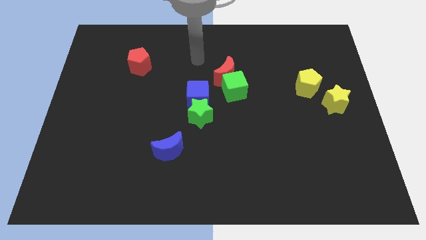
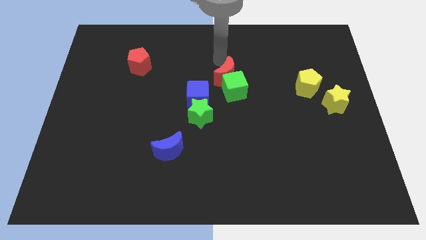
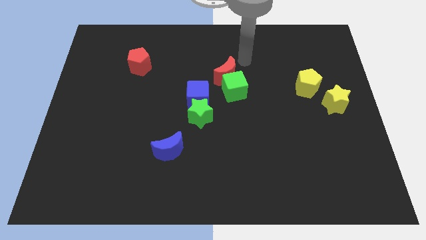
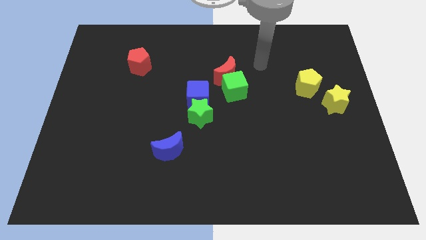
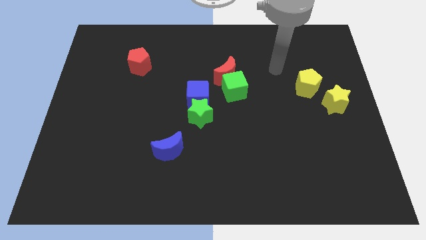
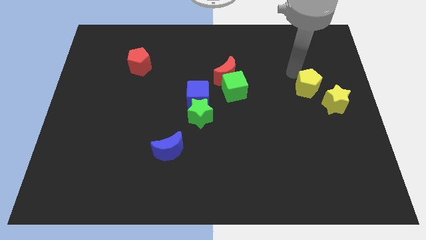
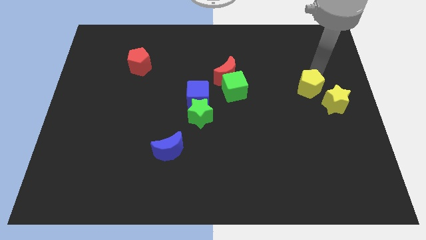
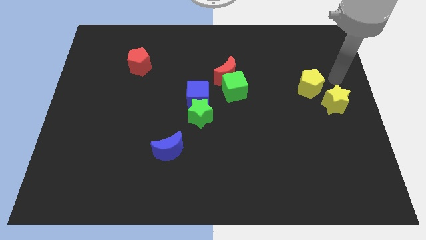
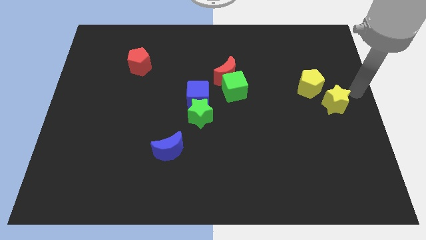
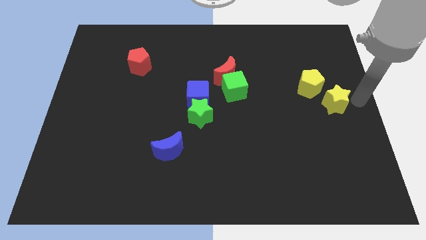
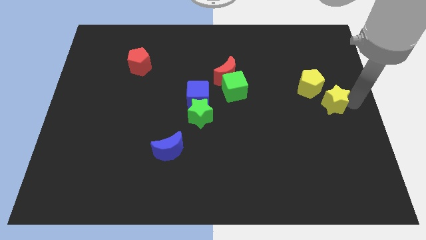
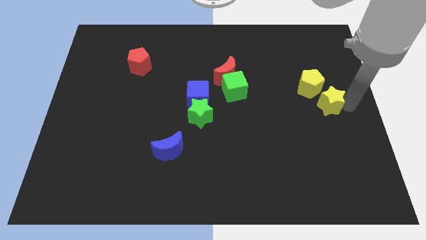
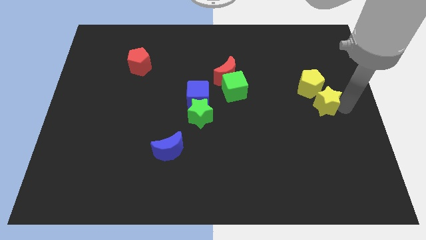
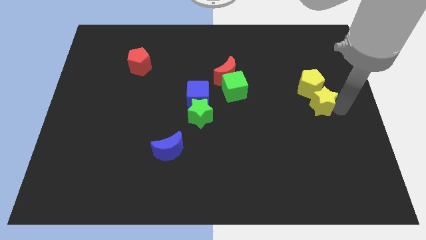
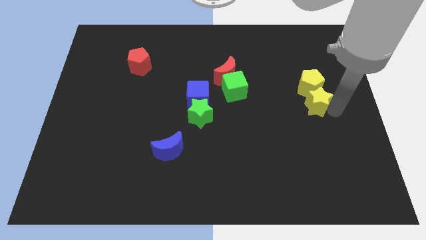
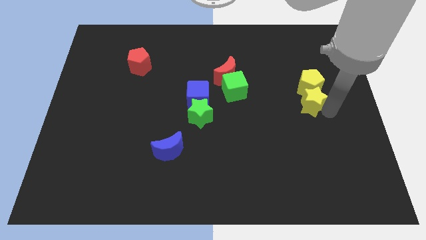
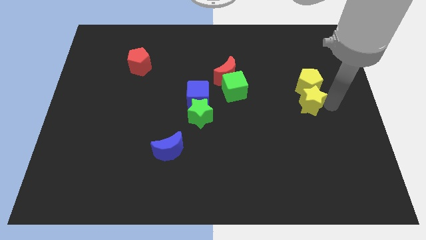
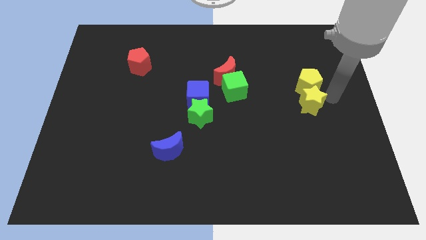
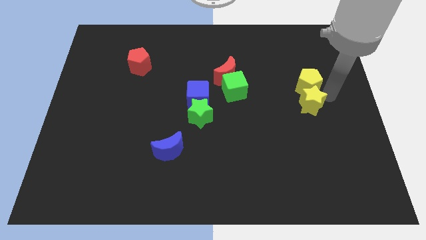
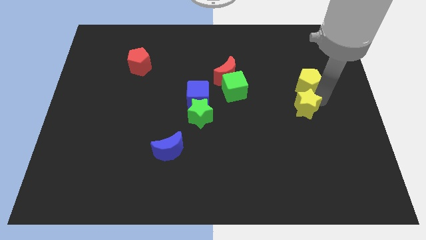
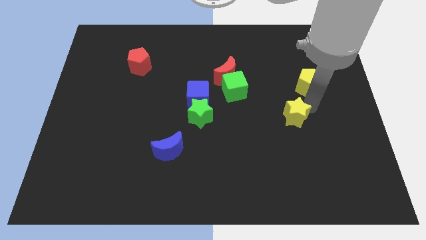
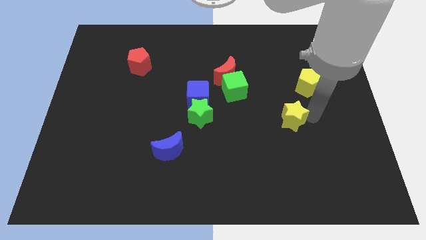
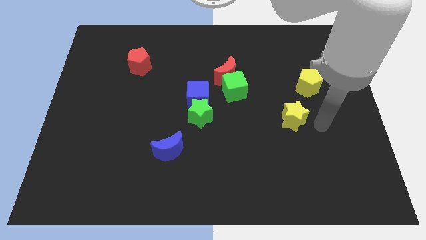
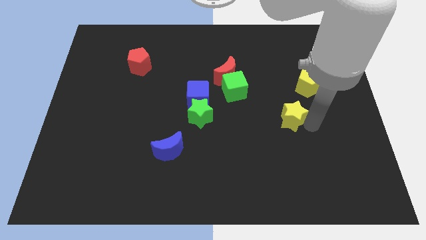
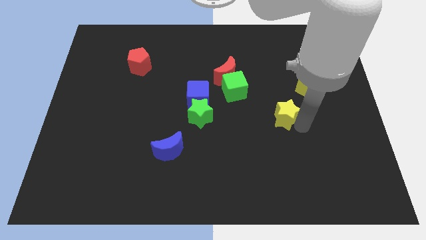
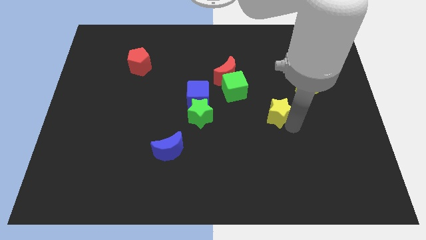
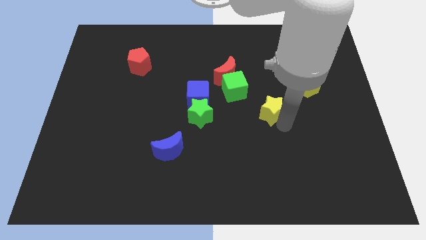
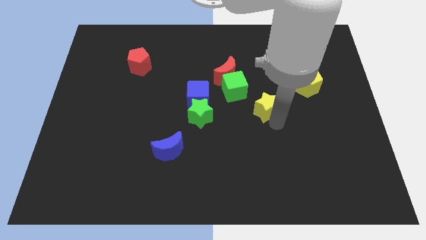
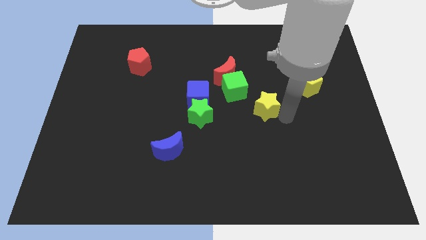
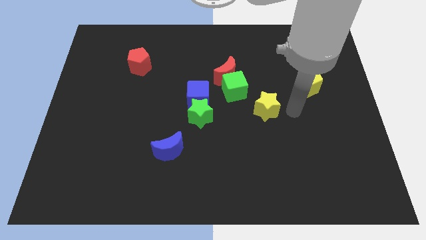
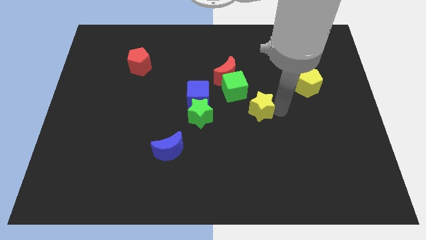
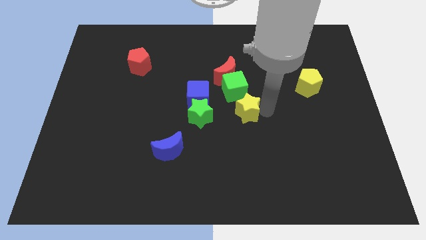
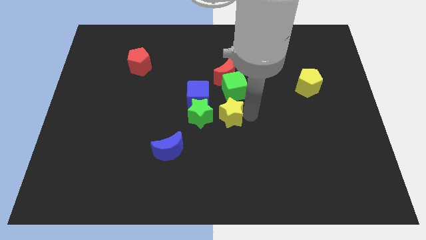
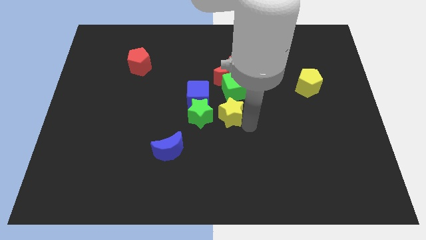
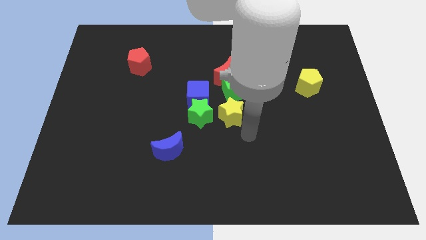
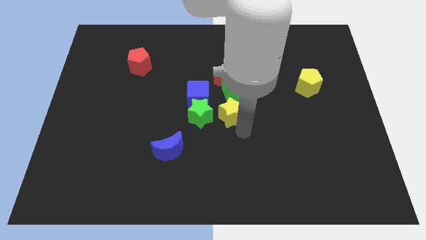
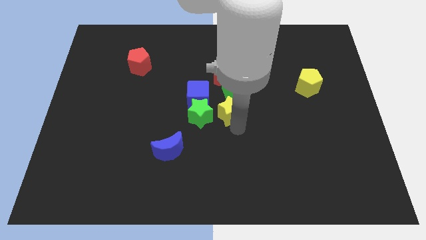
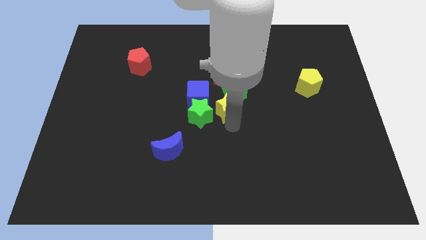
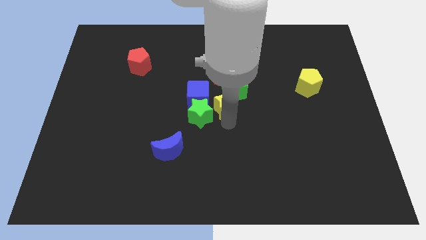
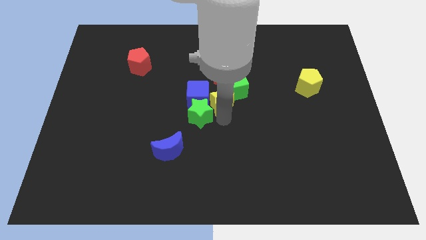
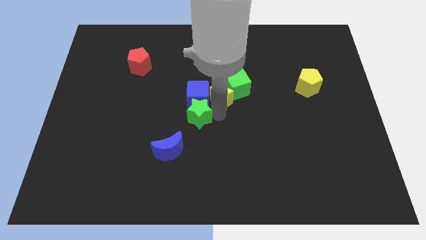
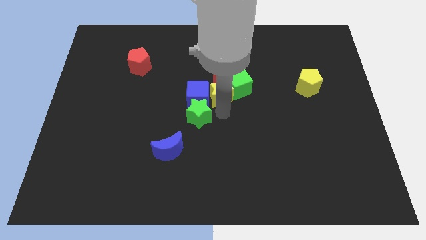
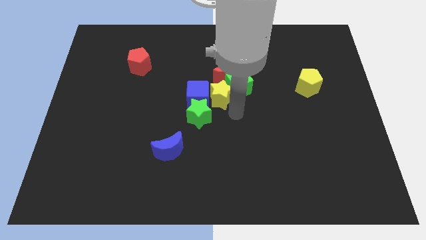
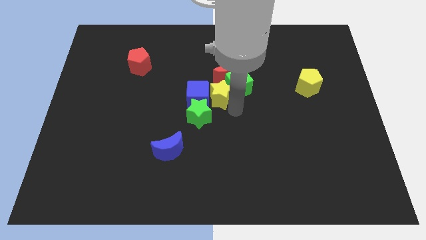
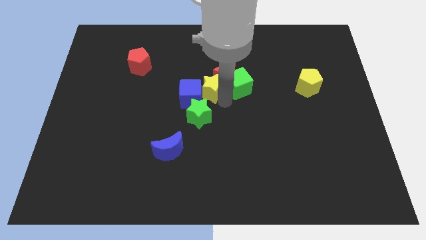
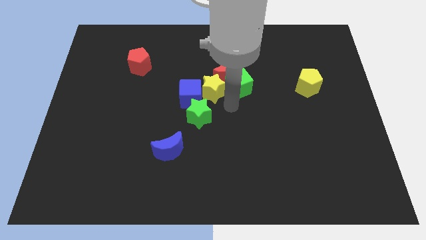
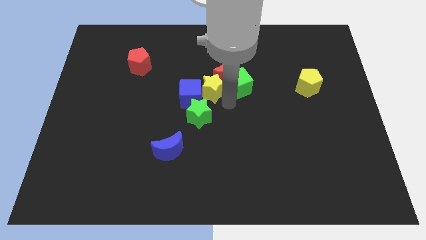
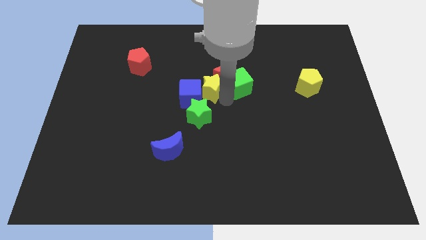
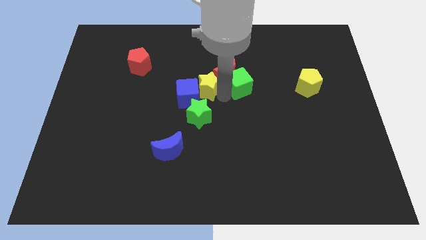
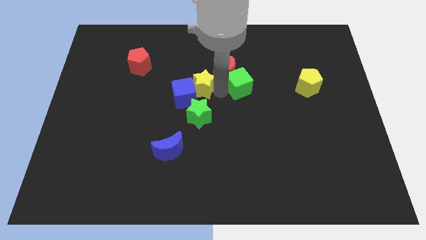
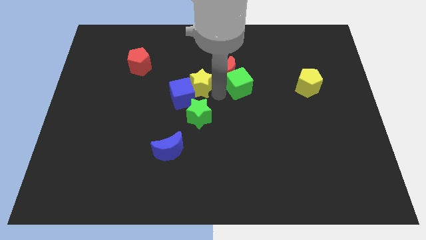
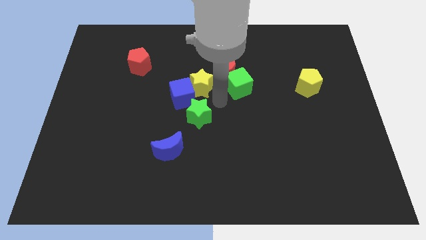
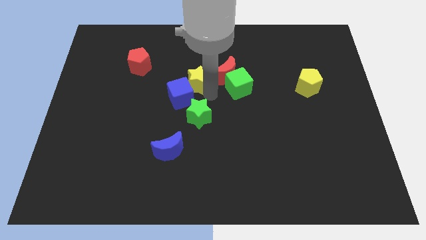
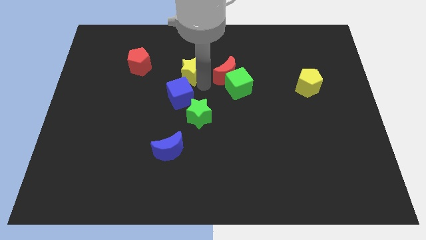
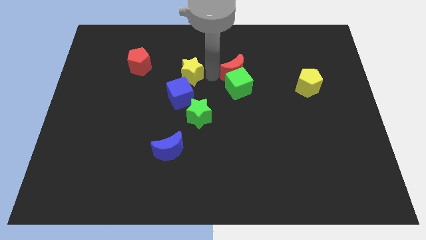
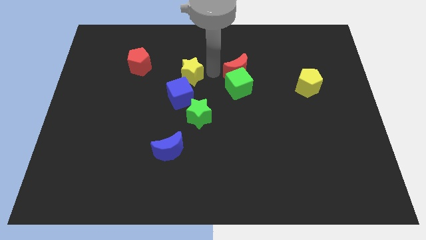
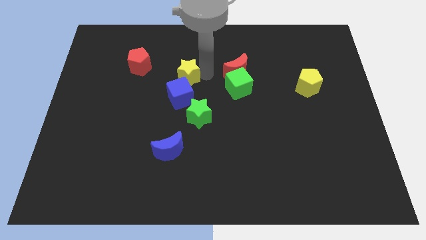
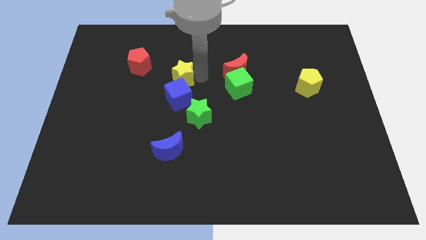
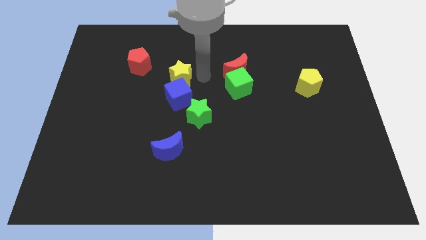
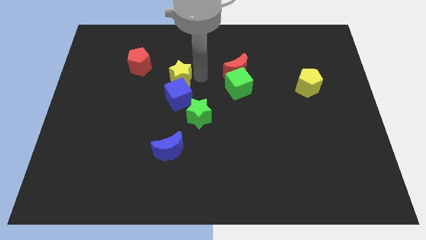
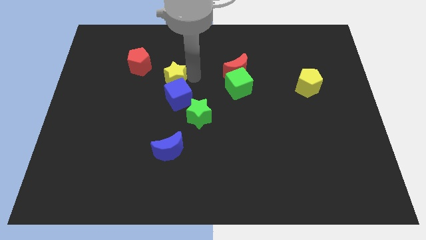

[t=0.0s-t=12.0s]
put the yellow star to the bottom right of the red pentagon
